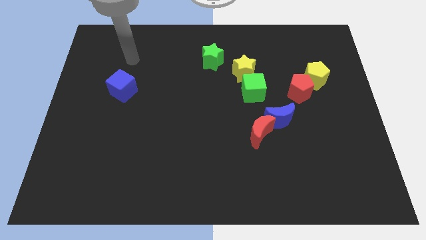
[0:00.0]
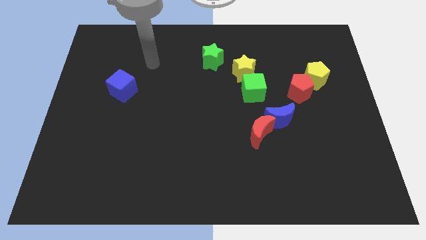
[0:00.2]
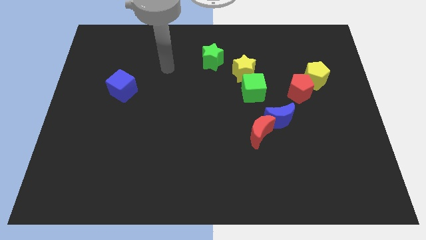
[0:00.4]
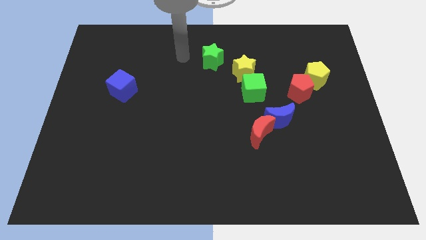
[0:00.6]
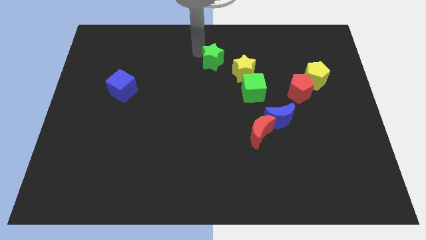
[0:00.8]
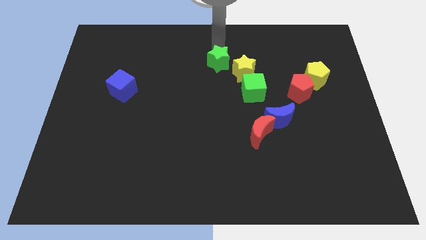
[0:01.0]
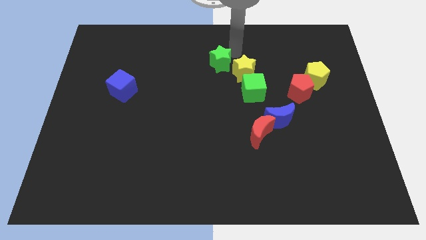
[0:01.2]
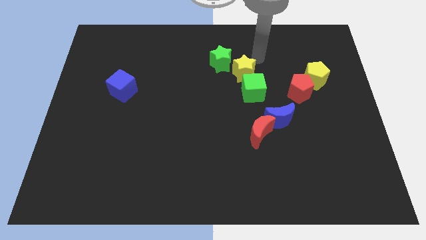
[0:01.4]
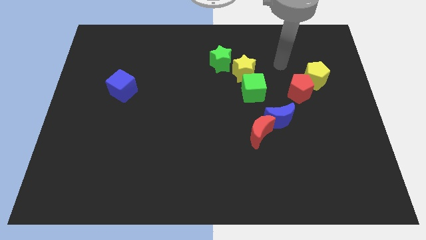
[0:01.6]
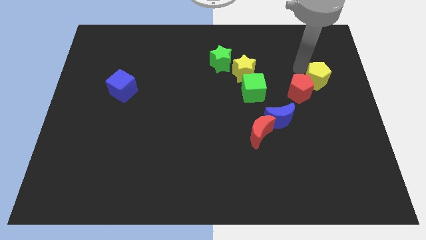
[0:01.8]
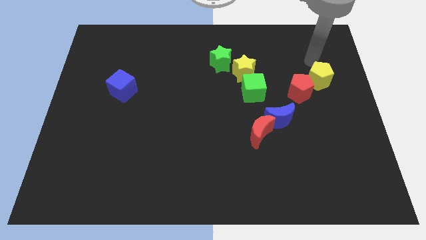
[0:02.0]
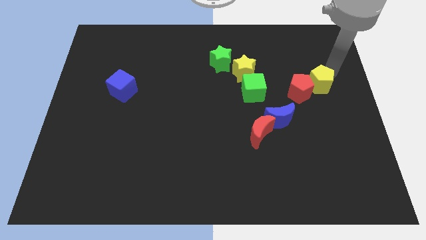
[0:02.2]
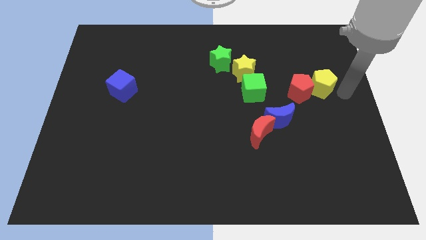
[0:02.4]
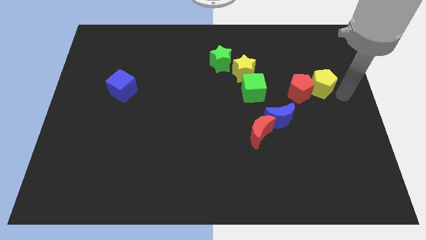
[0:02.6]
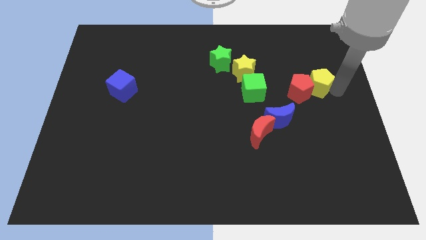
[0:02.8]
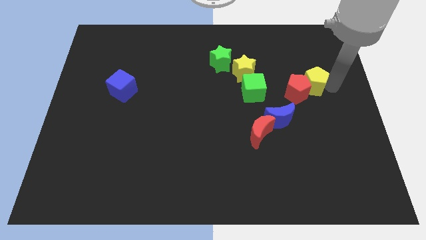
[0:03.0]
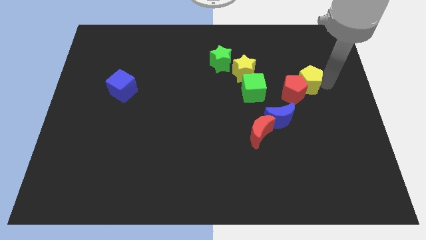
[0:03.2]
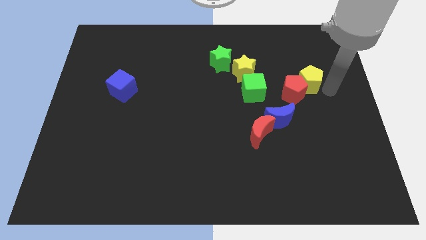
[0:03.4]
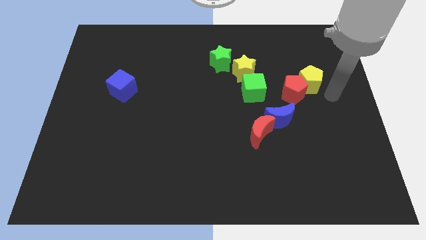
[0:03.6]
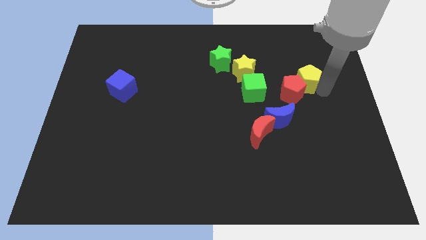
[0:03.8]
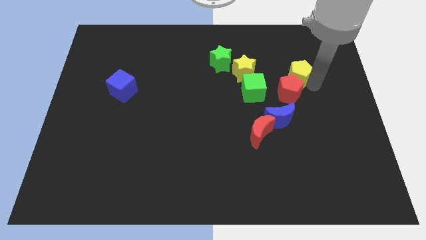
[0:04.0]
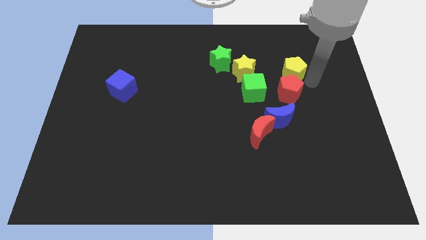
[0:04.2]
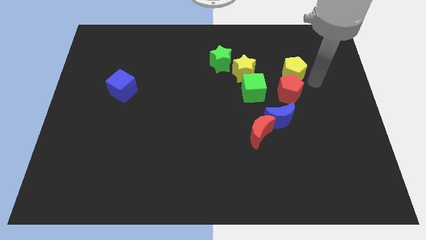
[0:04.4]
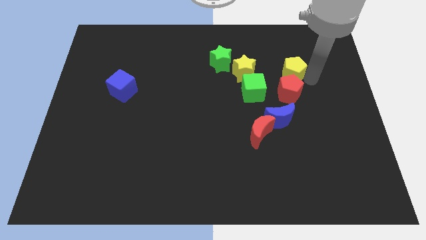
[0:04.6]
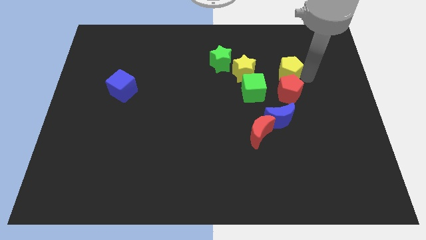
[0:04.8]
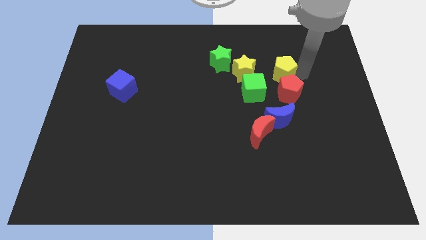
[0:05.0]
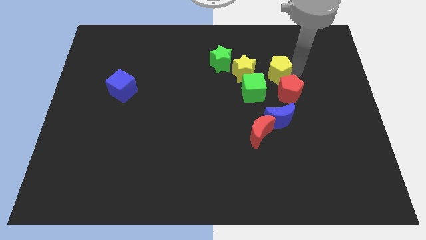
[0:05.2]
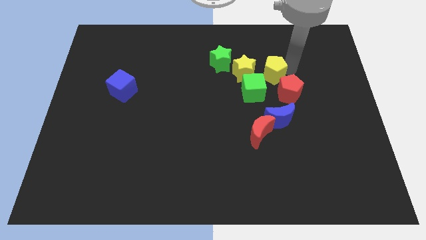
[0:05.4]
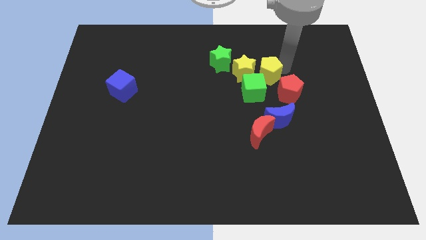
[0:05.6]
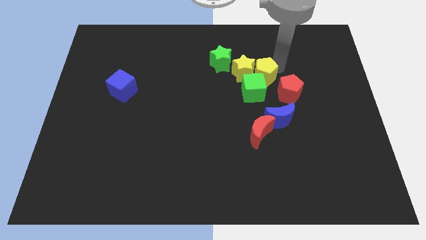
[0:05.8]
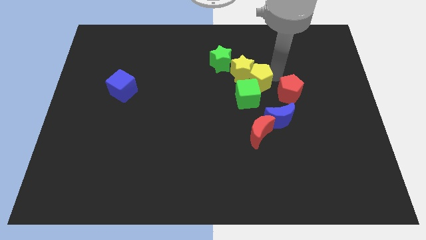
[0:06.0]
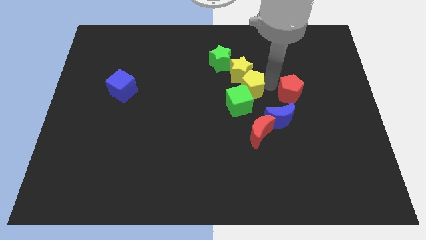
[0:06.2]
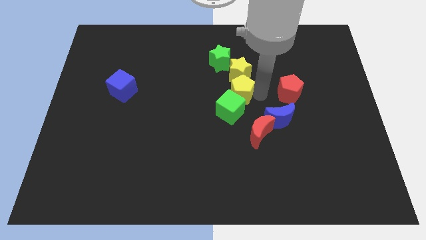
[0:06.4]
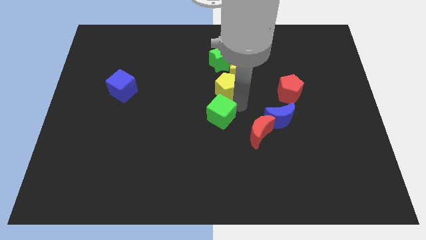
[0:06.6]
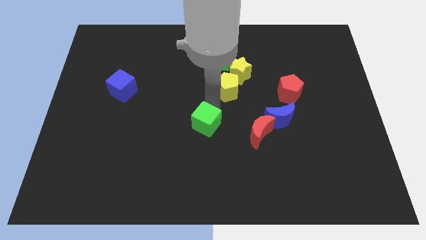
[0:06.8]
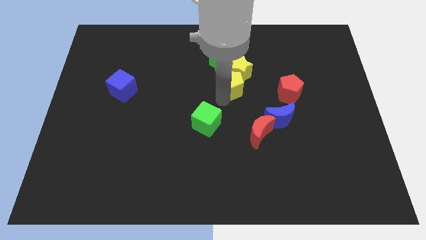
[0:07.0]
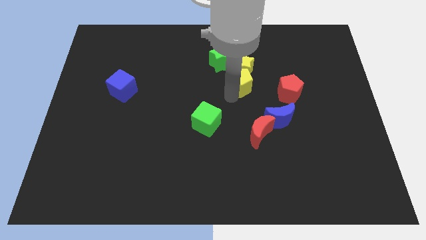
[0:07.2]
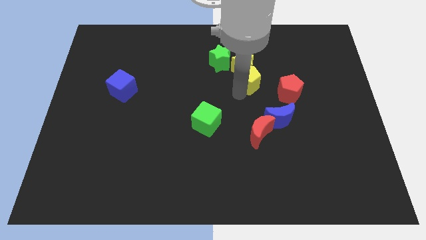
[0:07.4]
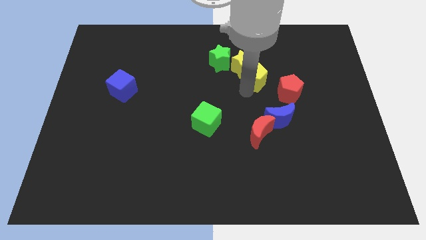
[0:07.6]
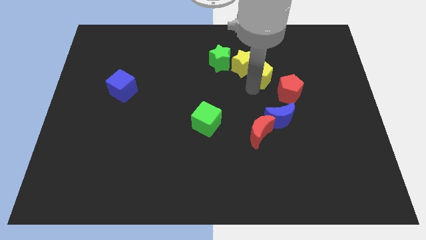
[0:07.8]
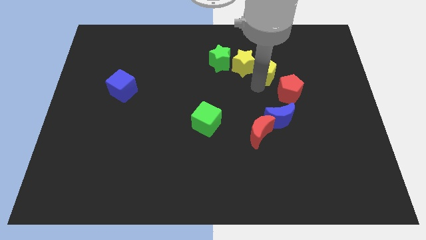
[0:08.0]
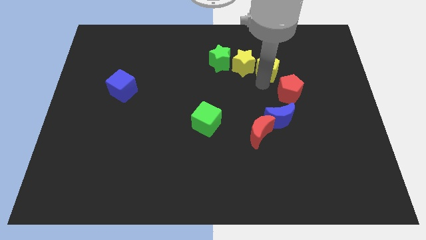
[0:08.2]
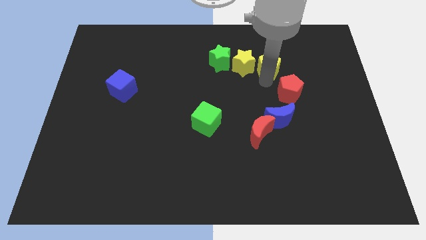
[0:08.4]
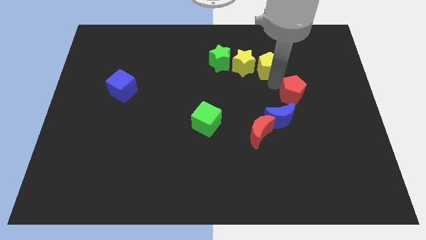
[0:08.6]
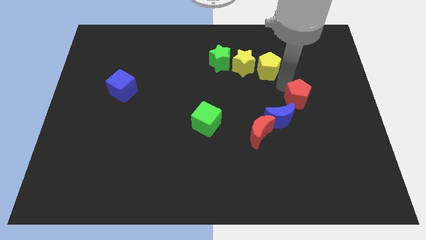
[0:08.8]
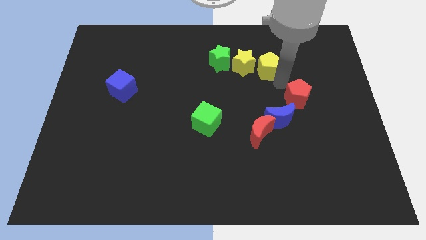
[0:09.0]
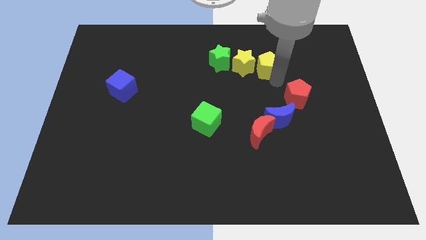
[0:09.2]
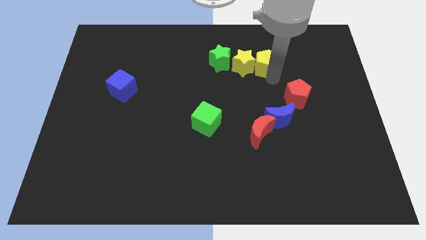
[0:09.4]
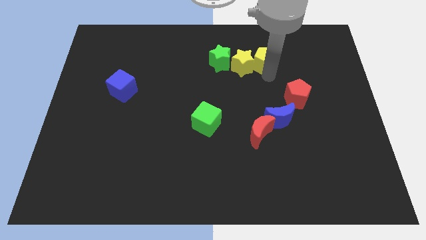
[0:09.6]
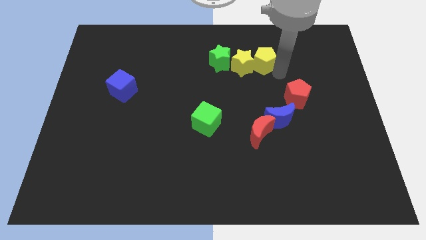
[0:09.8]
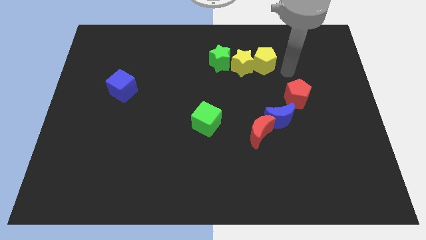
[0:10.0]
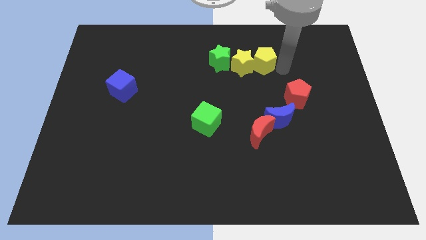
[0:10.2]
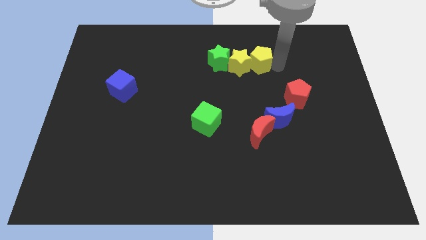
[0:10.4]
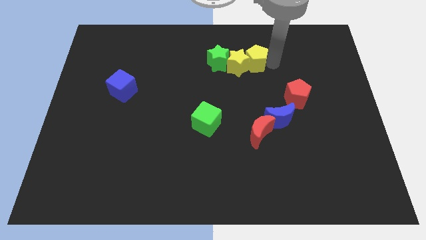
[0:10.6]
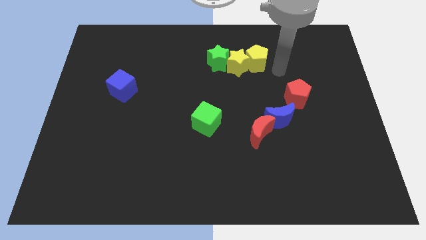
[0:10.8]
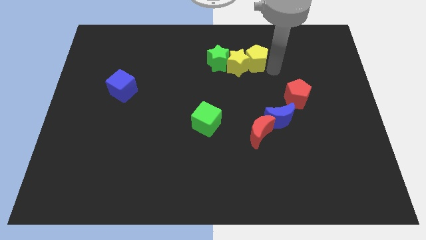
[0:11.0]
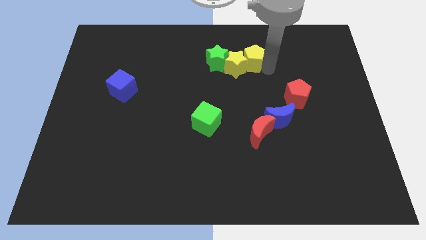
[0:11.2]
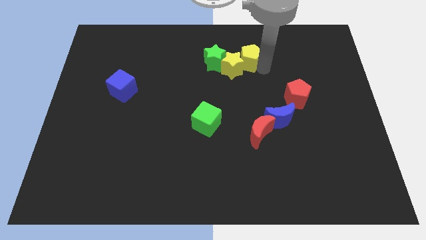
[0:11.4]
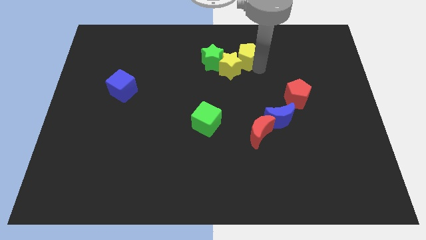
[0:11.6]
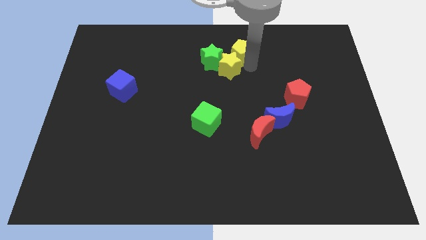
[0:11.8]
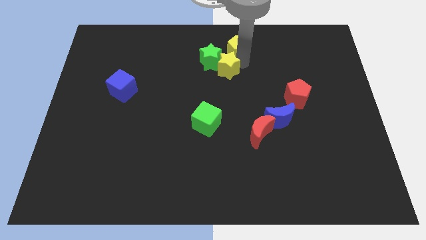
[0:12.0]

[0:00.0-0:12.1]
push the yellow pentagon to the towards your base
